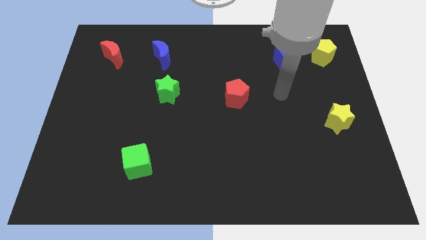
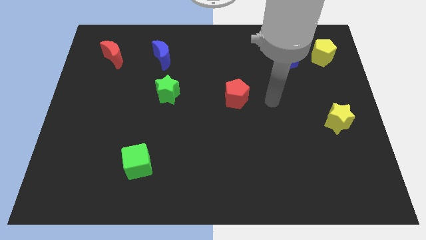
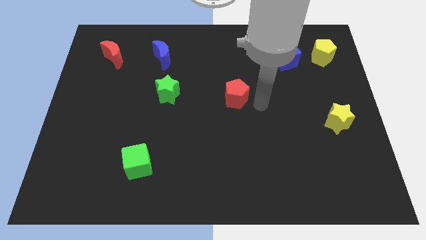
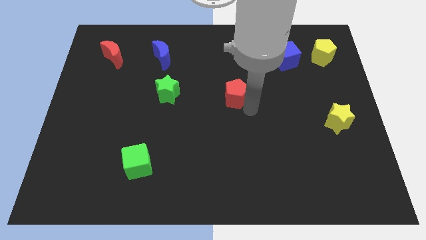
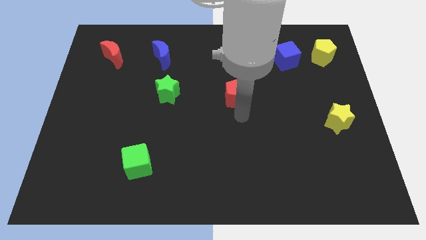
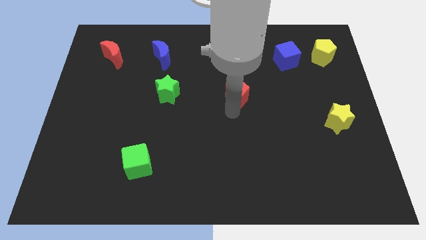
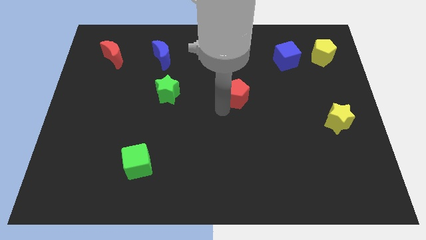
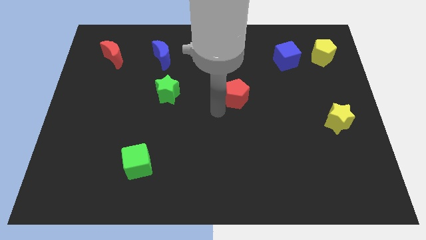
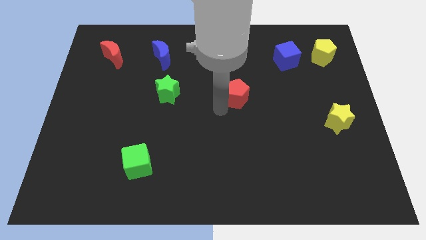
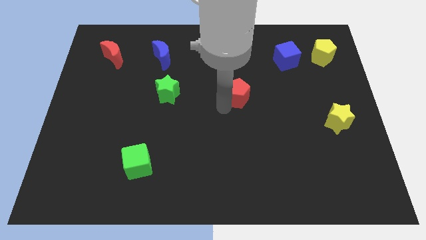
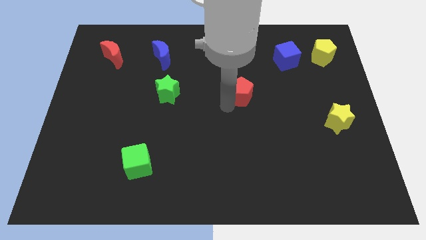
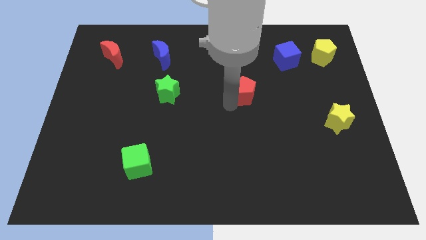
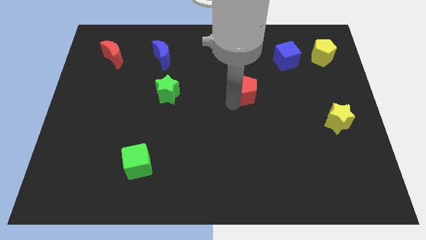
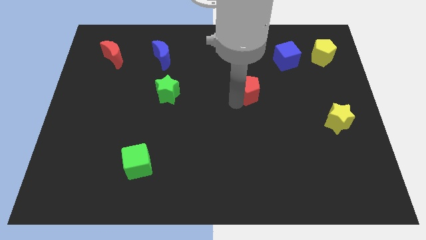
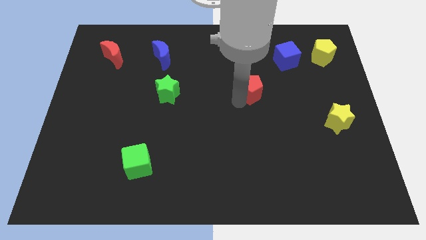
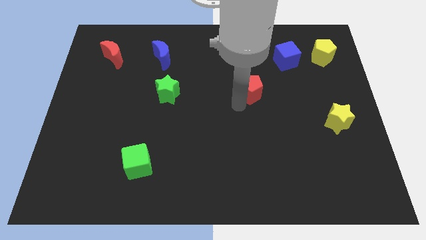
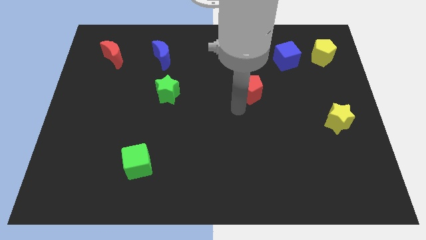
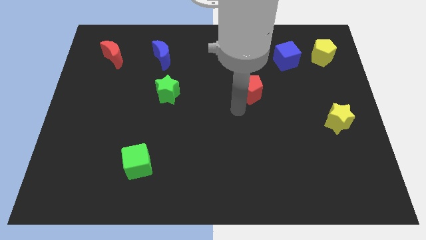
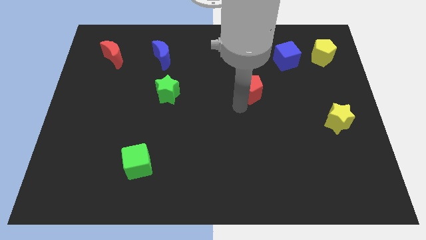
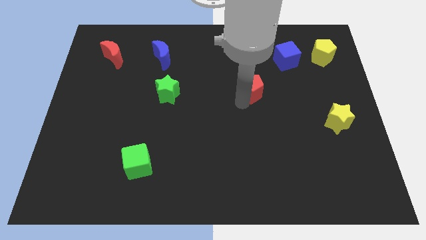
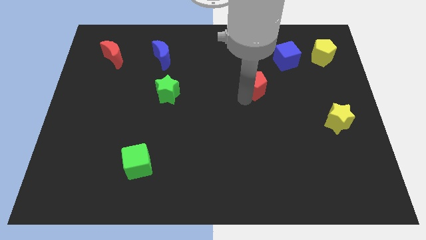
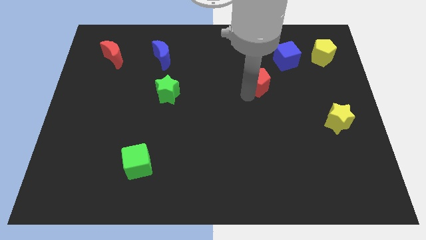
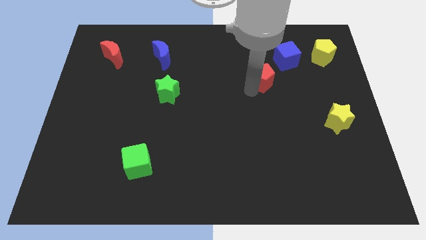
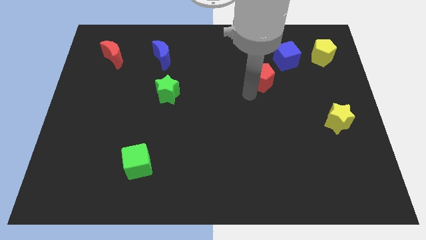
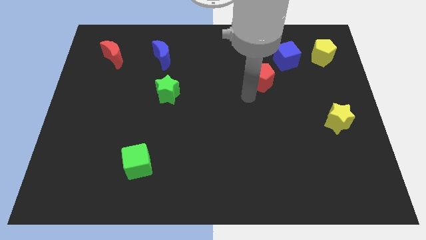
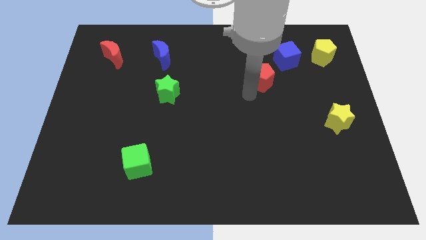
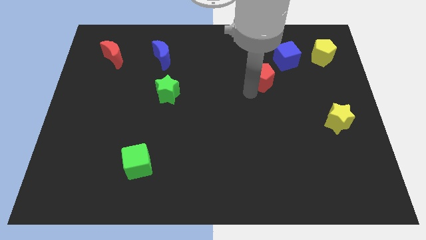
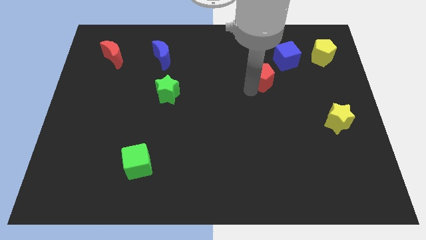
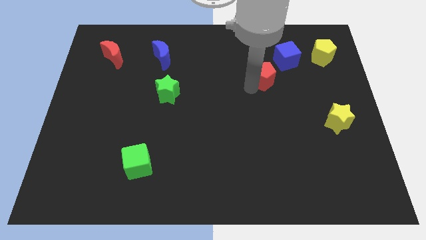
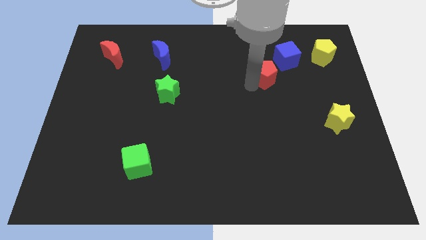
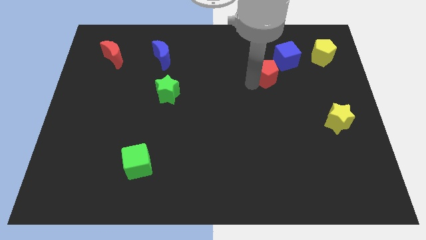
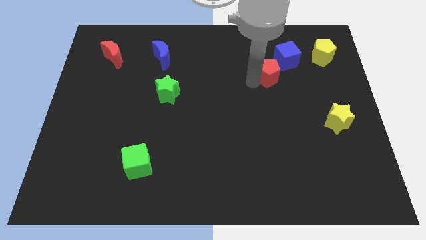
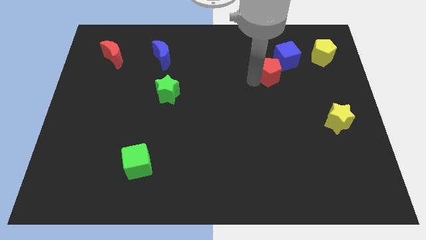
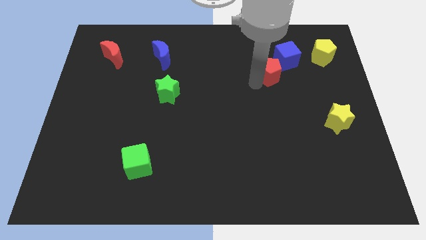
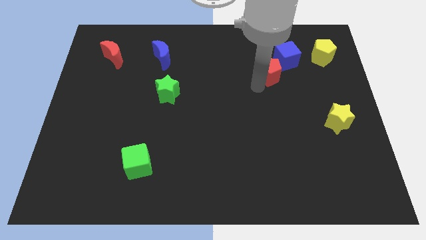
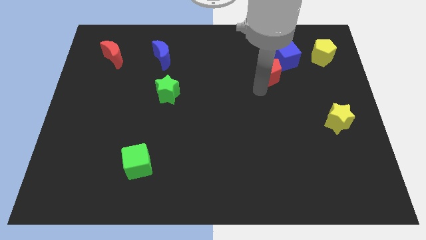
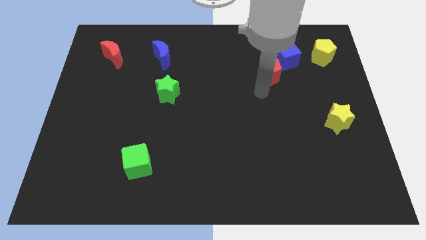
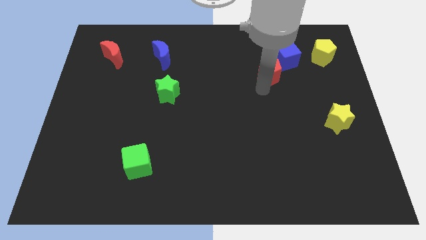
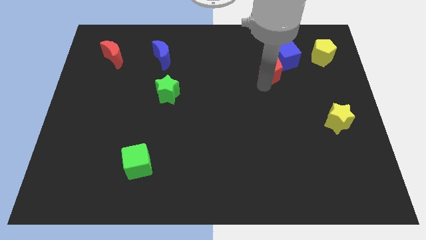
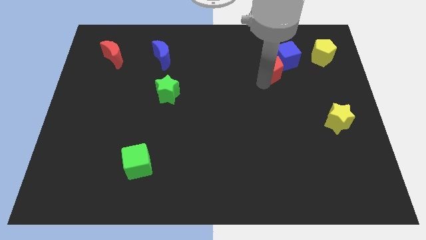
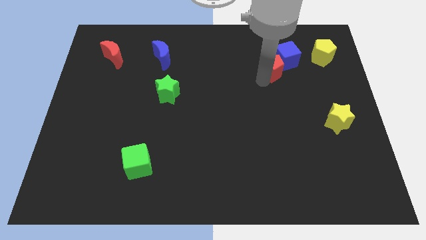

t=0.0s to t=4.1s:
move the red pentagon close to the blue cube

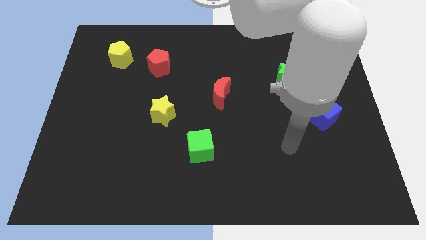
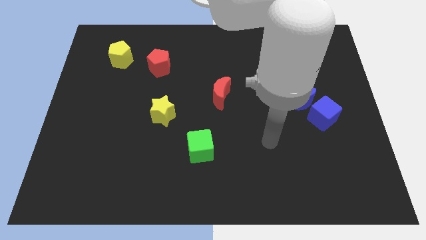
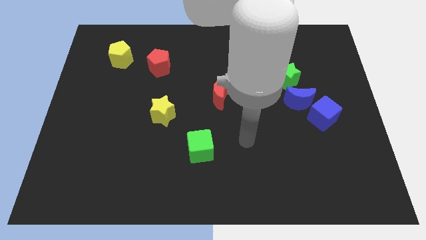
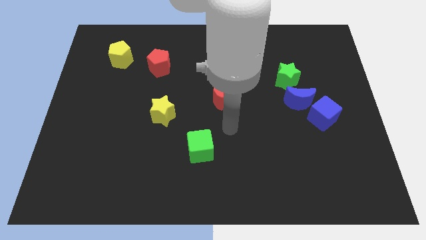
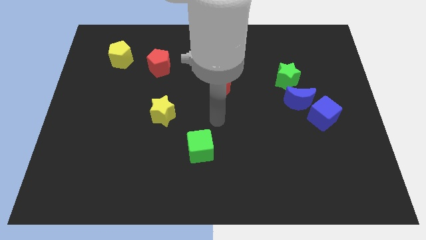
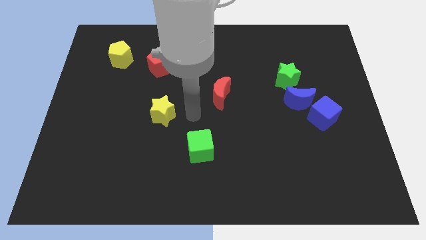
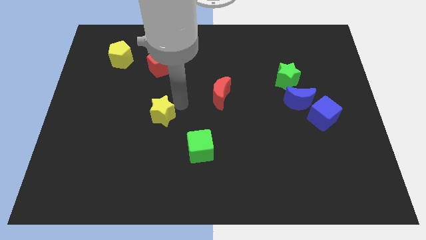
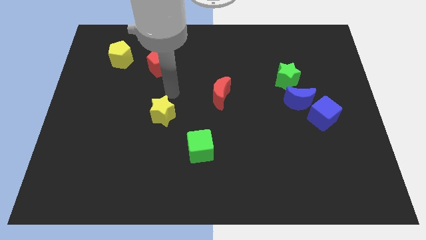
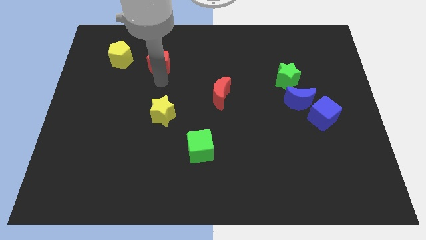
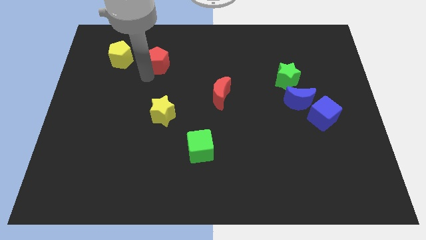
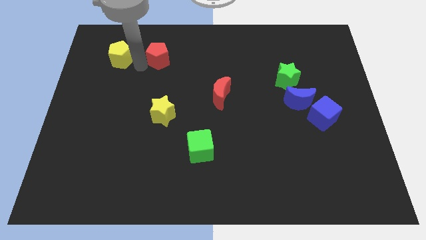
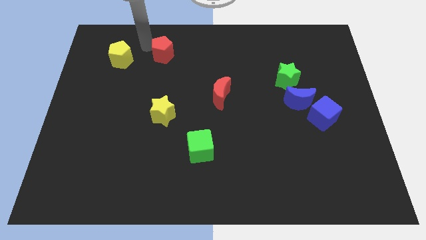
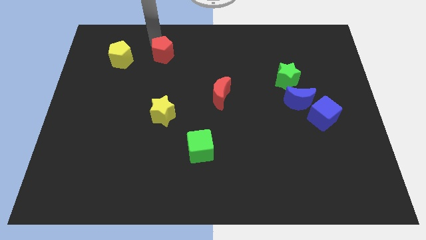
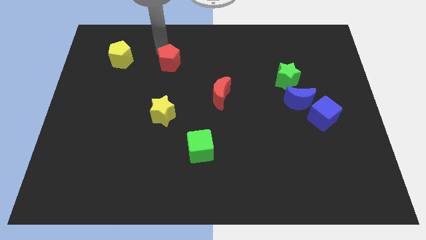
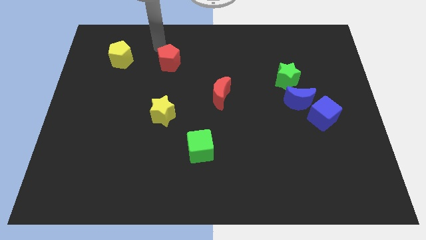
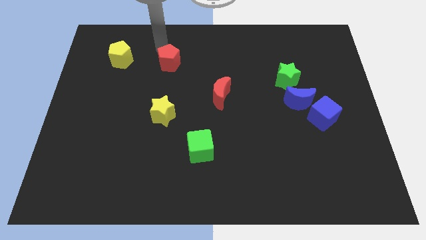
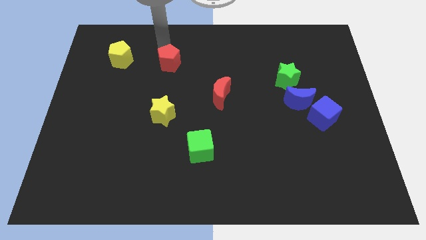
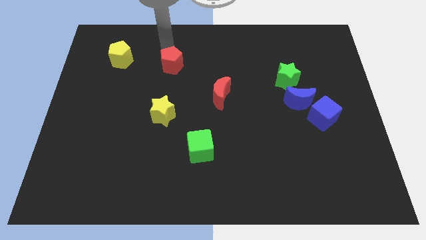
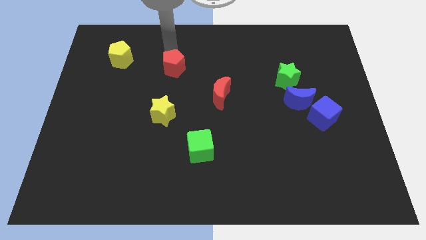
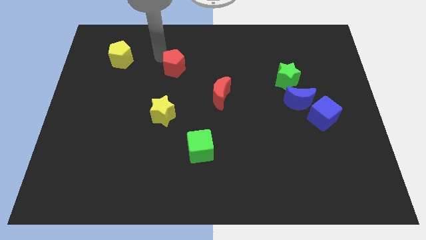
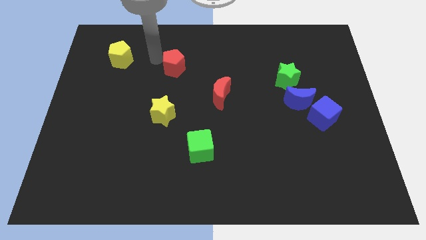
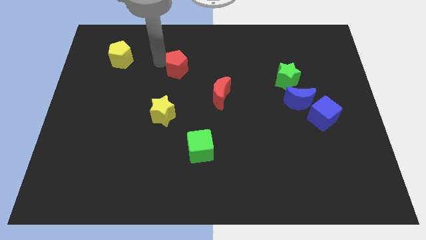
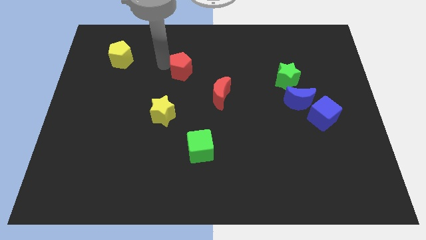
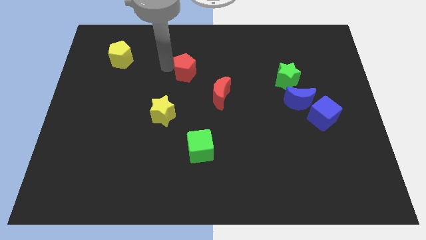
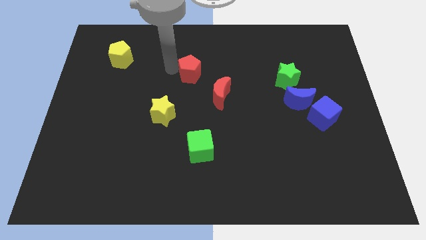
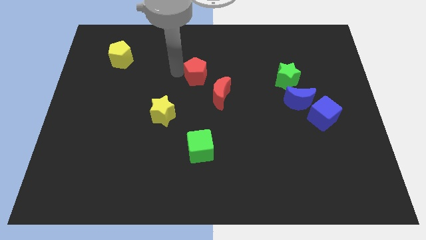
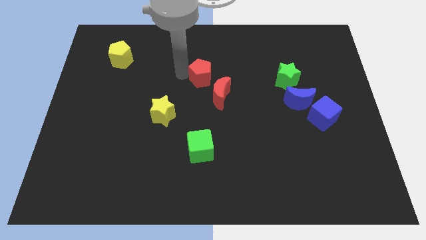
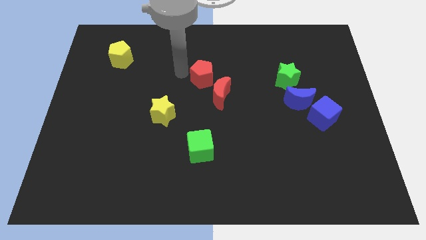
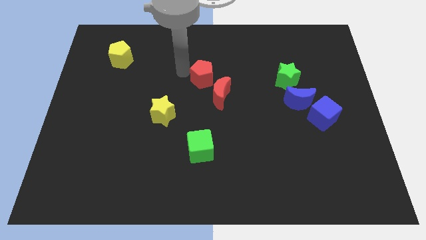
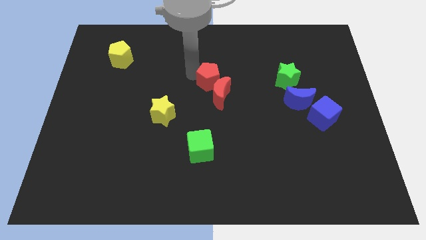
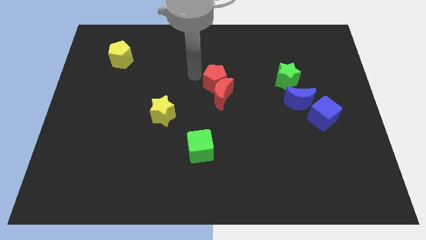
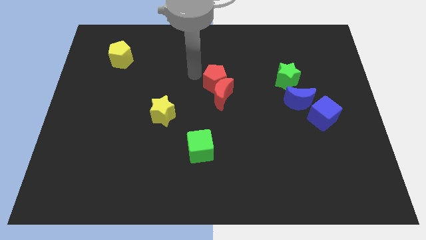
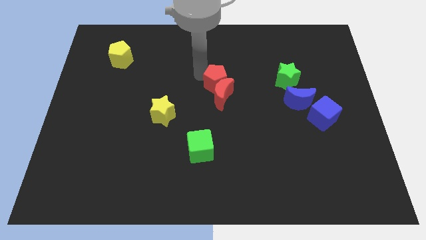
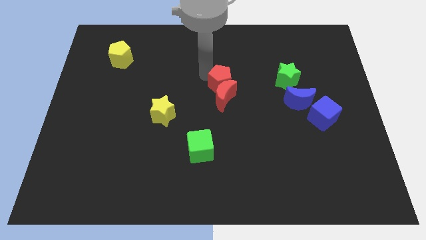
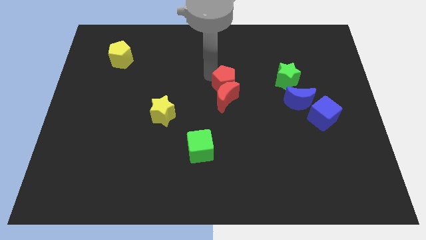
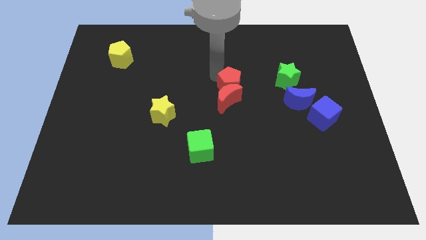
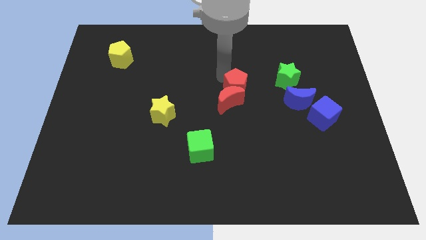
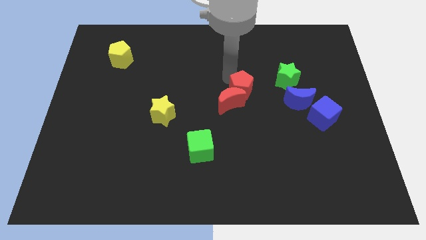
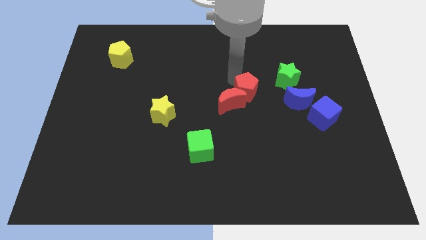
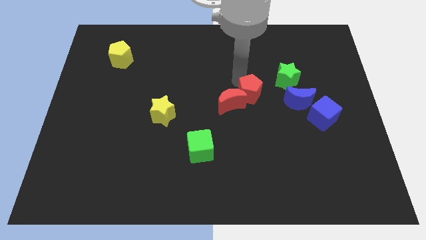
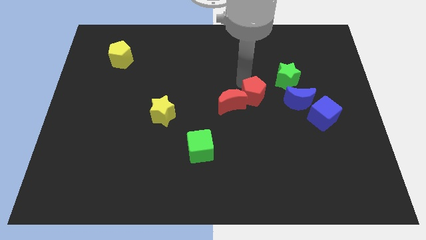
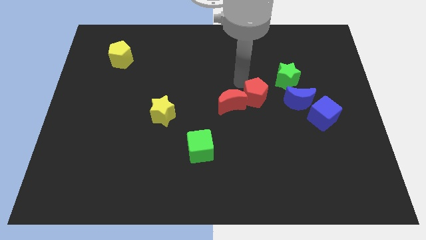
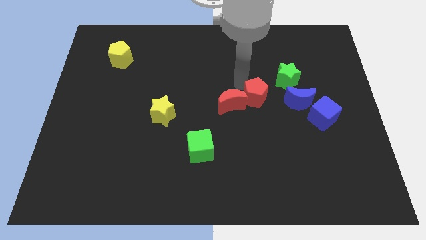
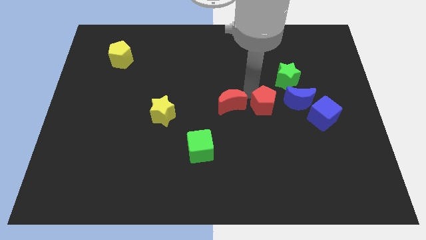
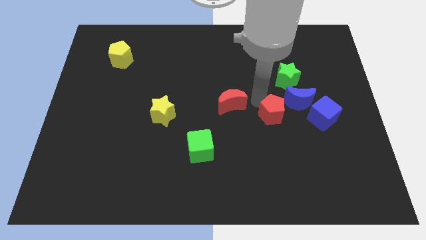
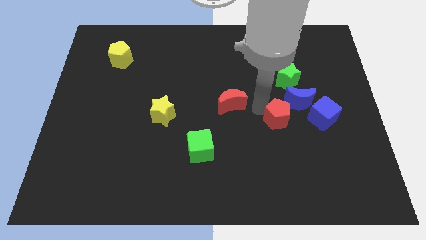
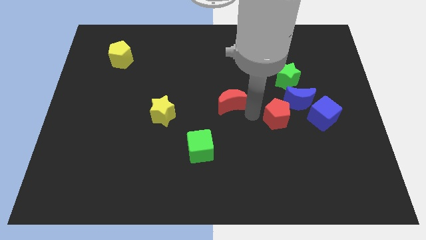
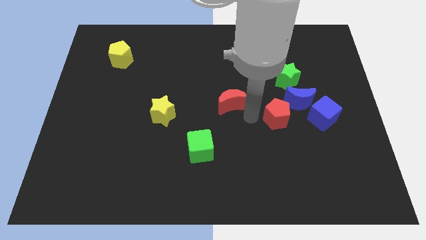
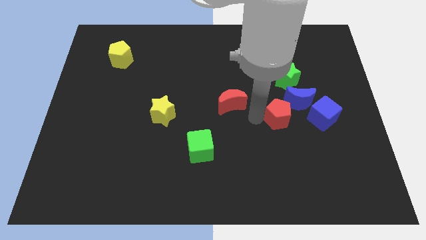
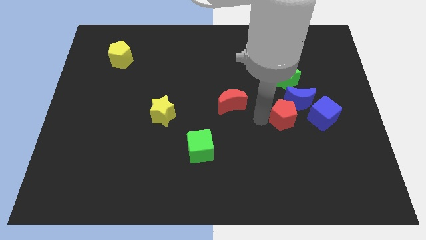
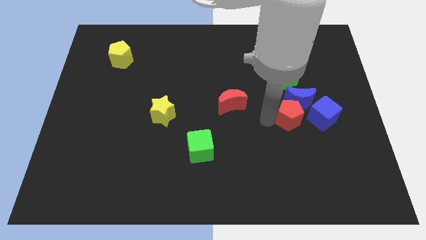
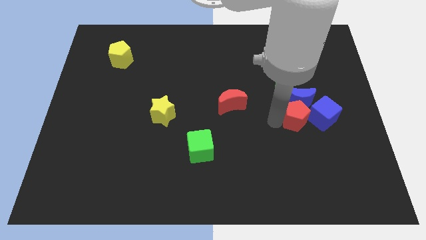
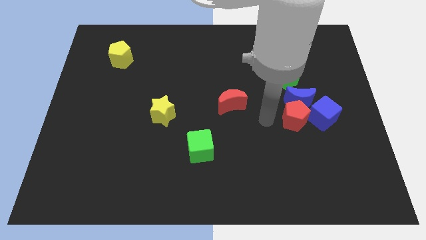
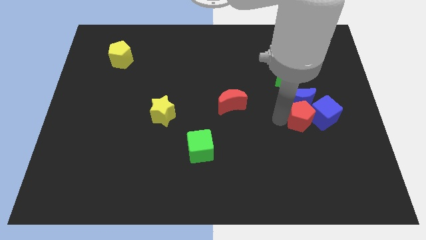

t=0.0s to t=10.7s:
push the red pentagon to the blue cube
